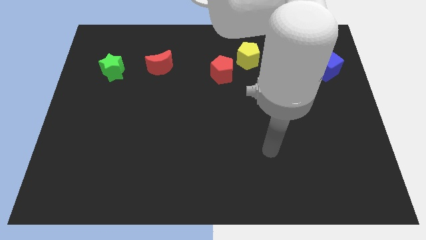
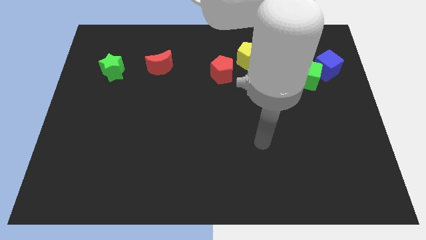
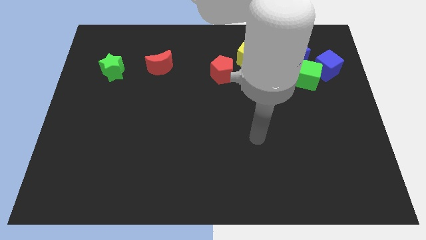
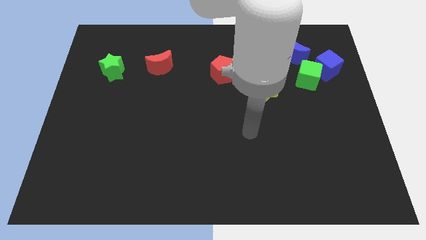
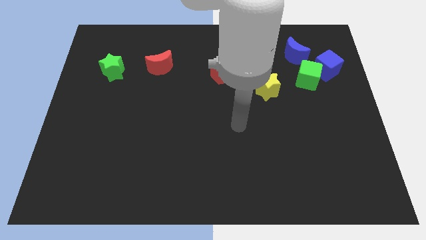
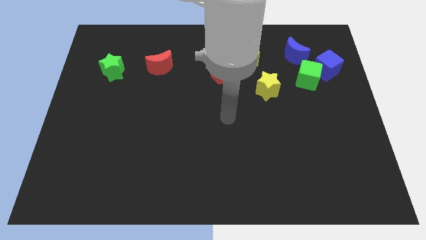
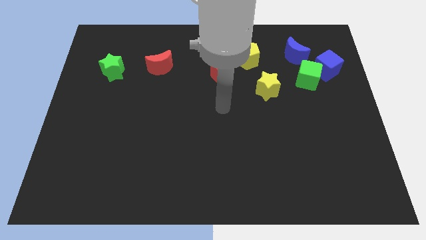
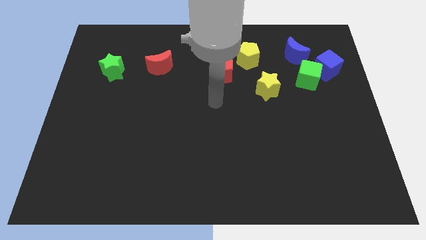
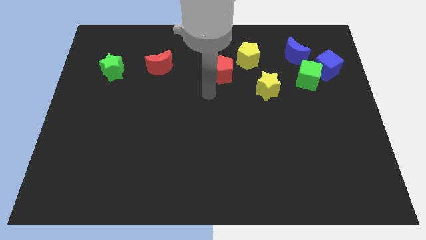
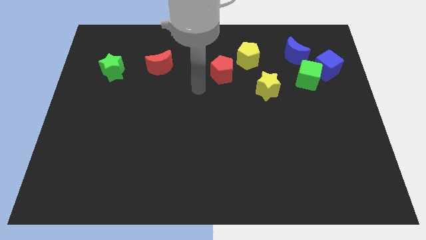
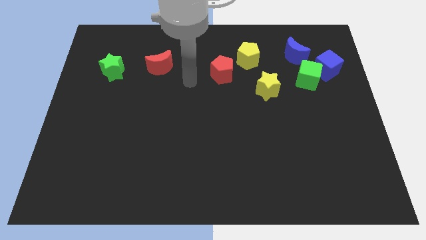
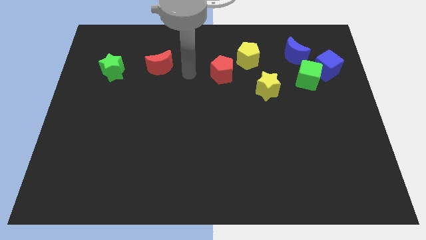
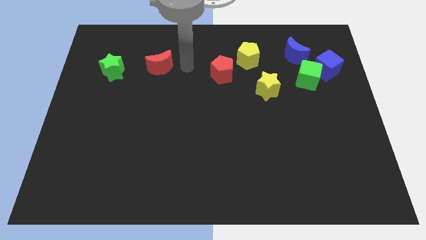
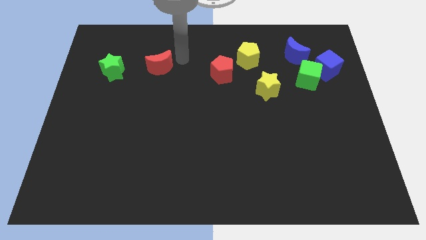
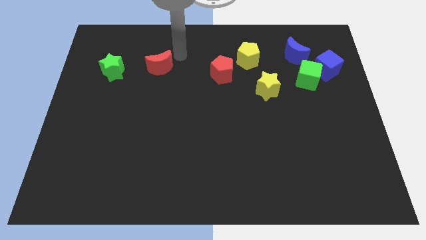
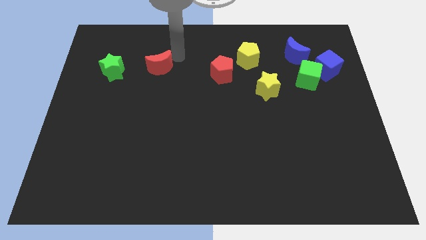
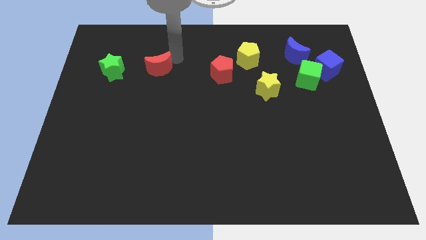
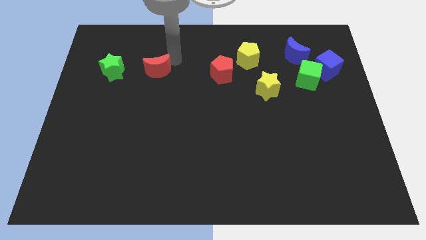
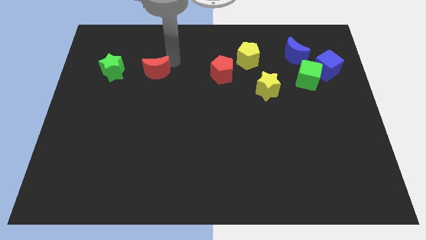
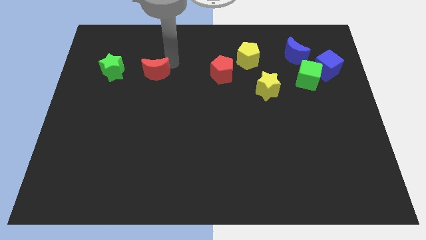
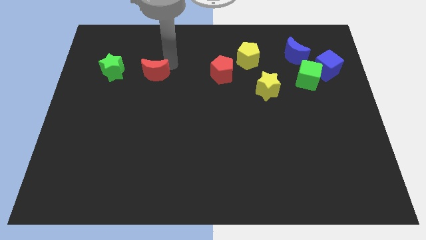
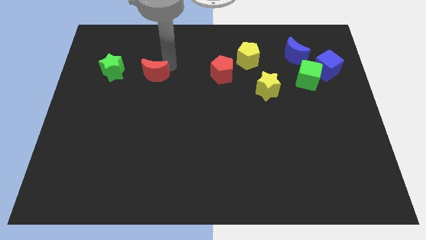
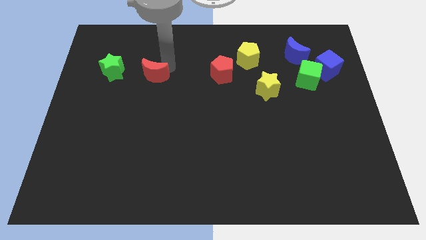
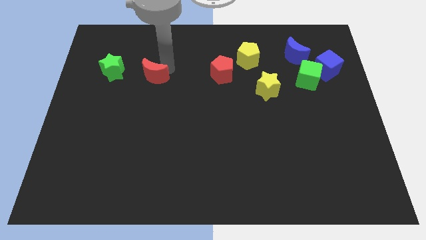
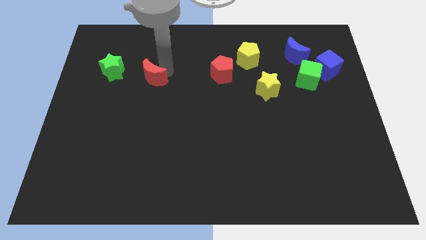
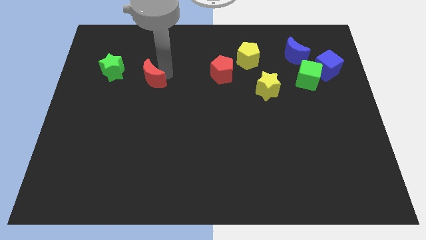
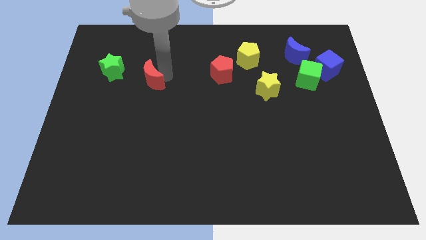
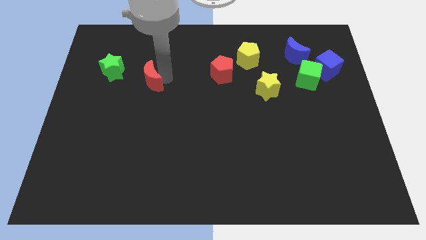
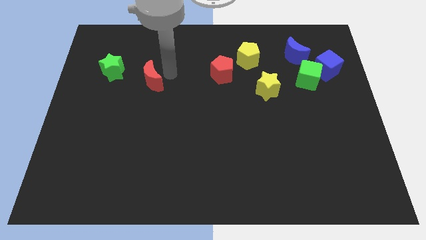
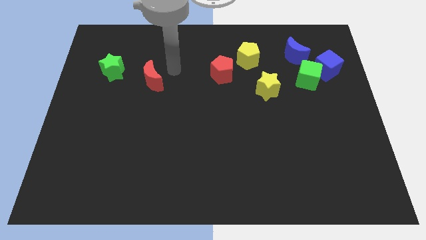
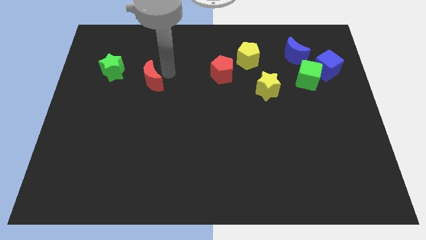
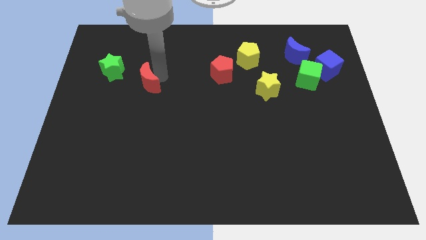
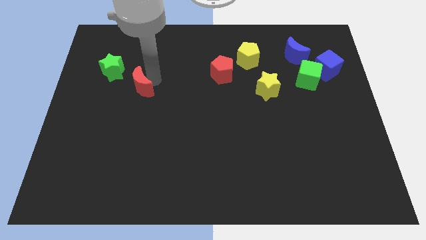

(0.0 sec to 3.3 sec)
slide the red moon down and to the left diagonally somewhat

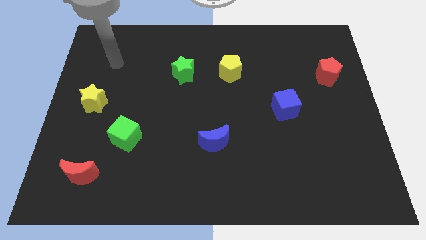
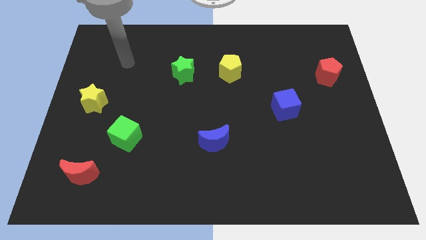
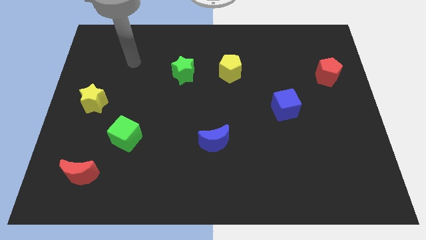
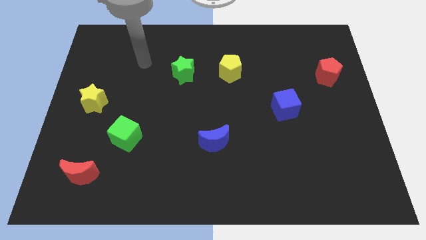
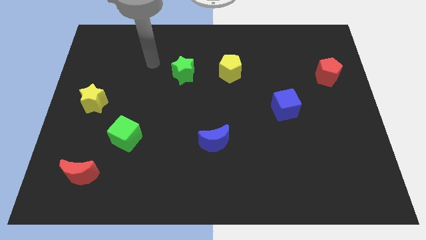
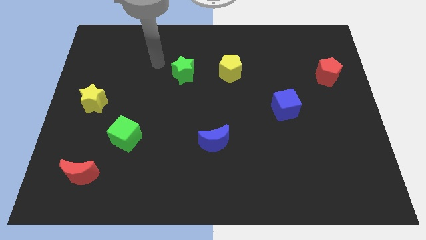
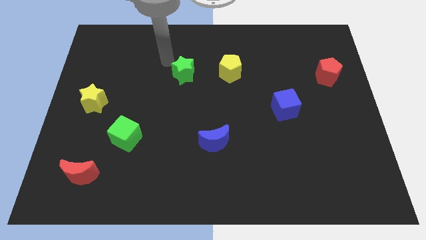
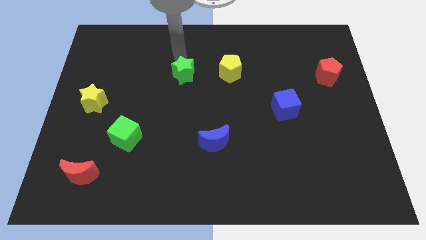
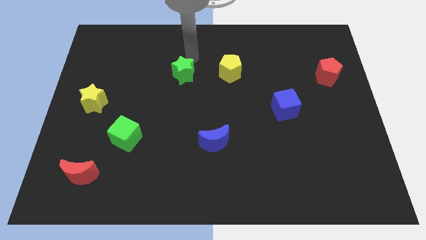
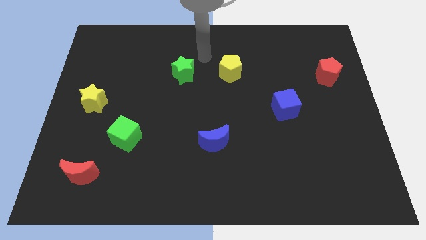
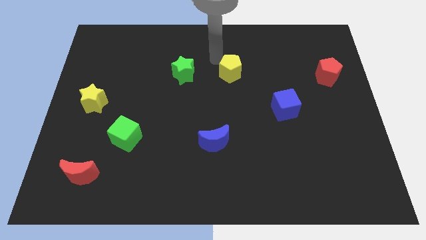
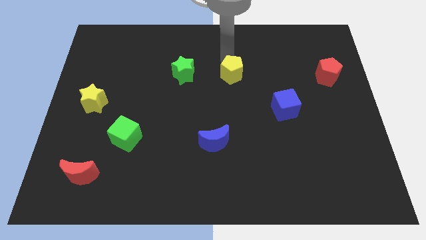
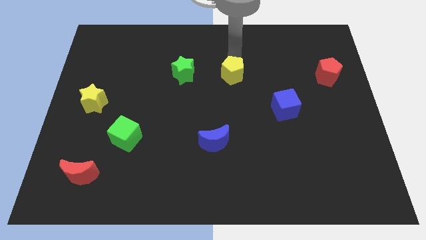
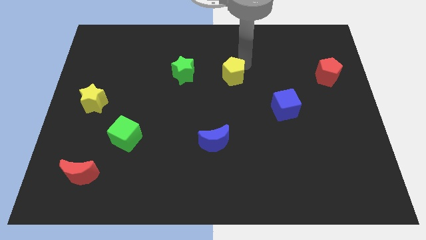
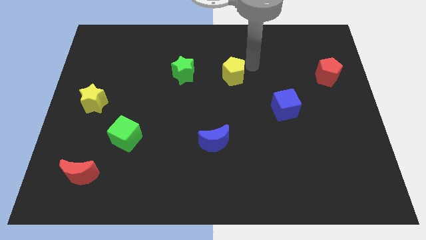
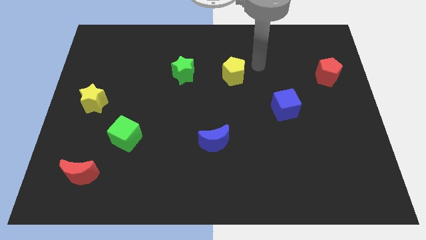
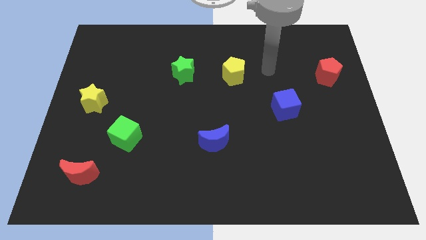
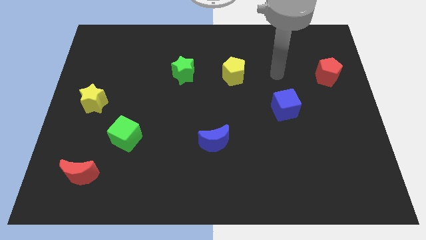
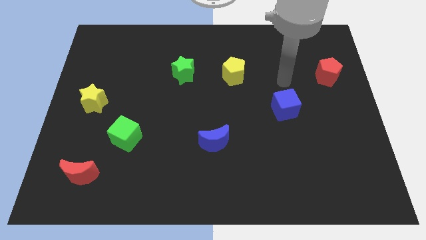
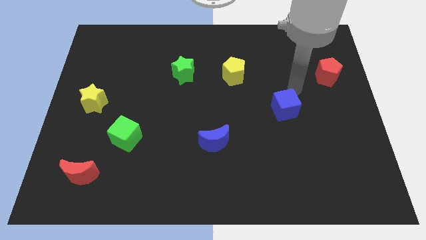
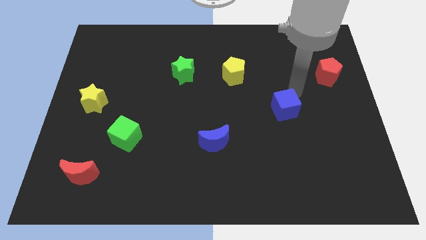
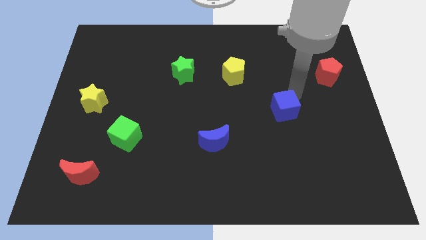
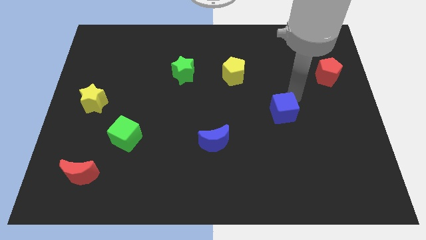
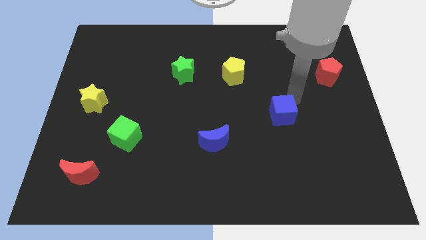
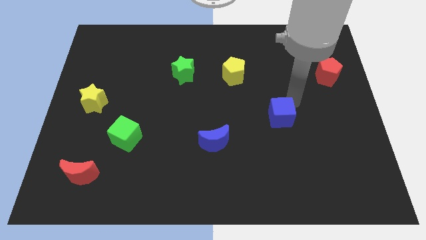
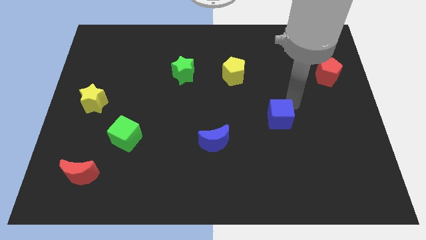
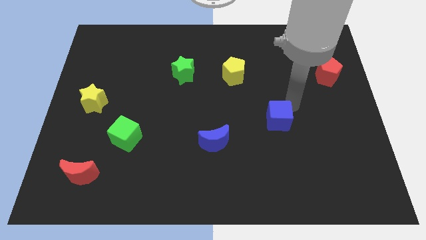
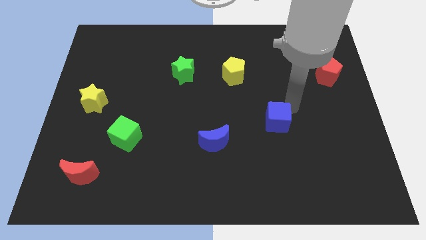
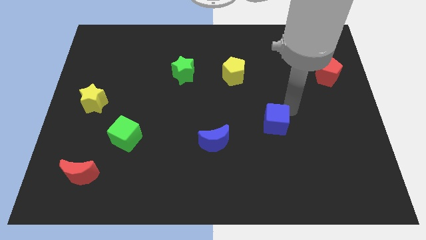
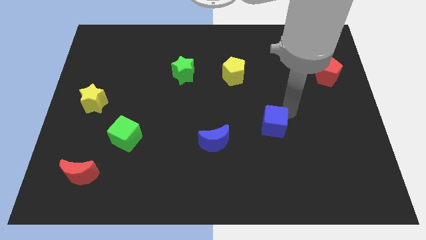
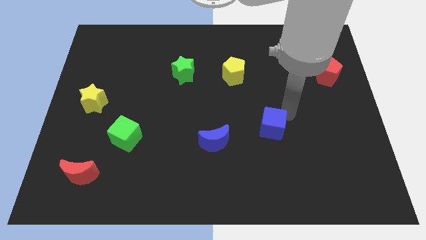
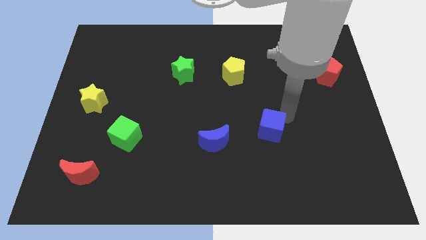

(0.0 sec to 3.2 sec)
move the blue cube a little downwards and left diagonally

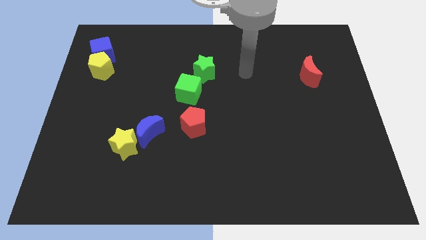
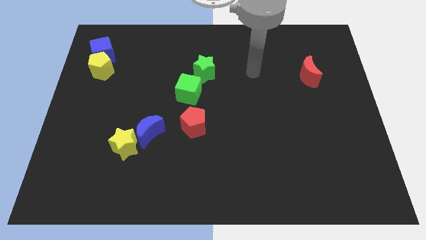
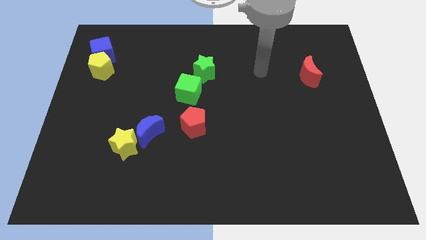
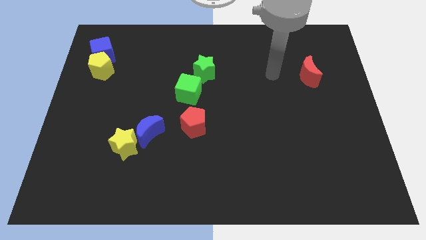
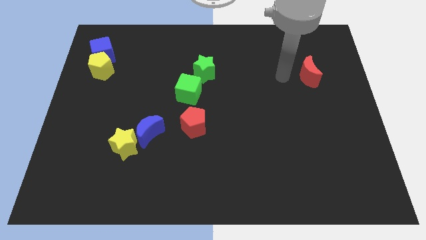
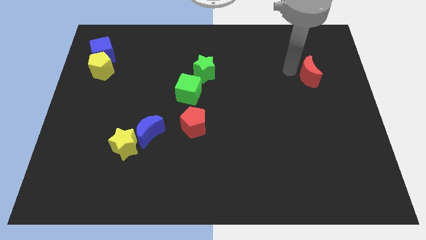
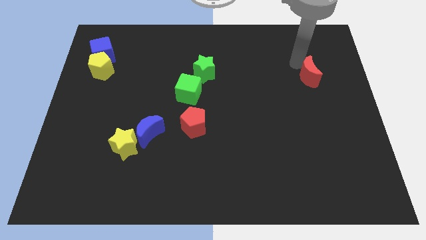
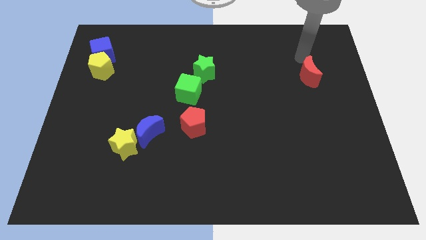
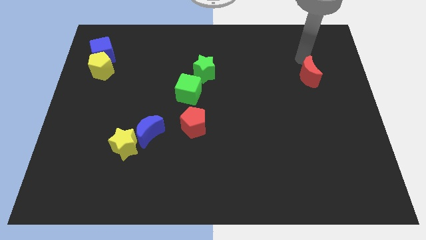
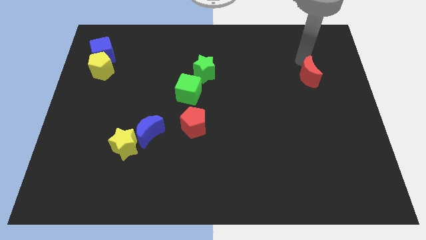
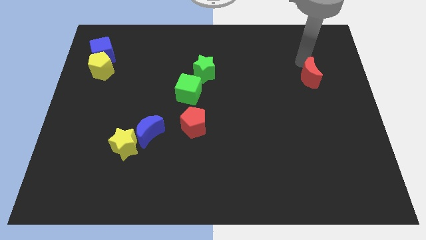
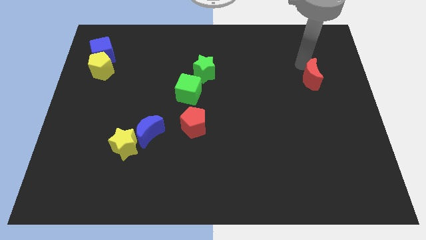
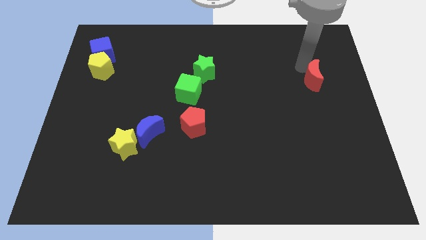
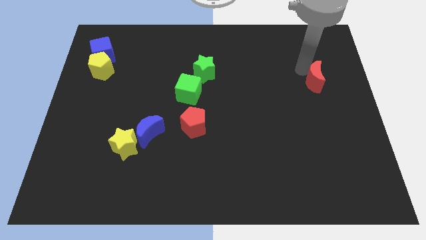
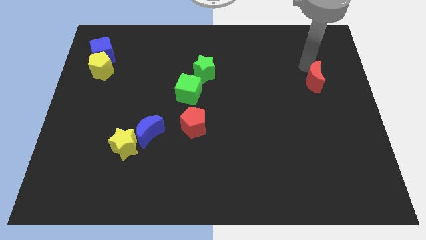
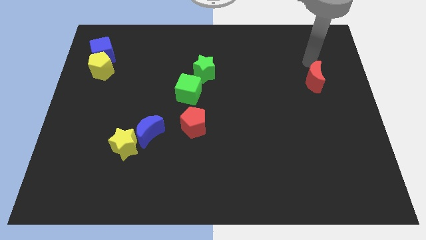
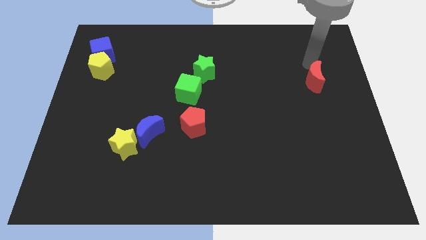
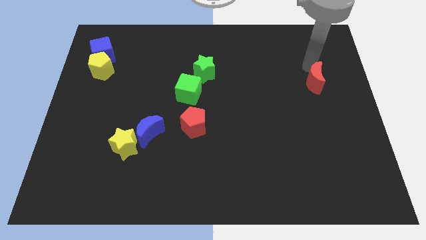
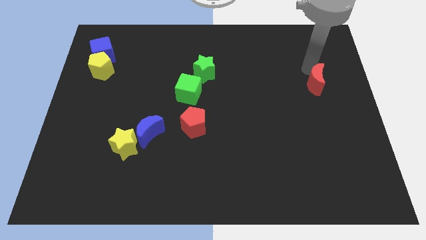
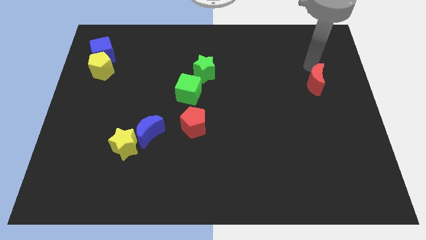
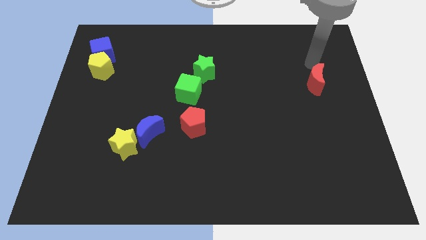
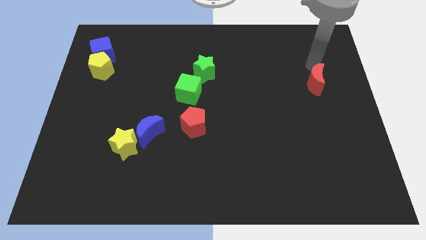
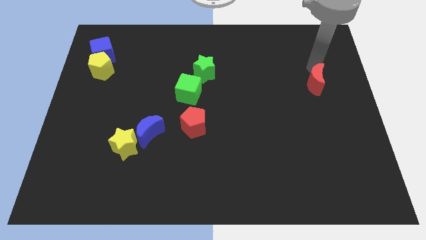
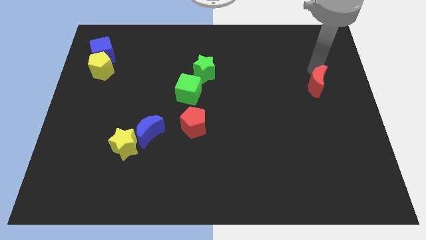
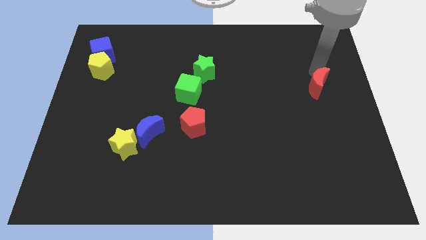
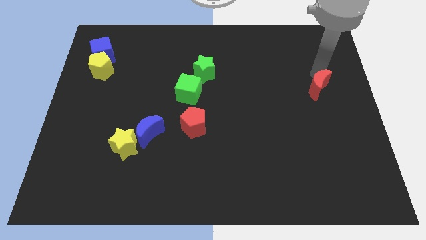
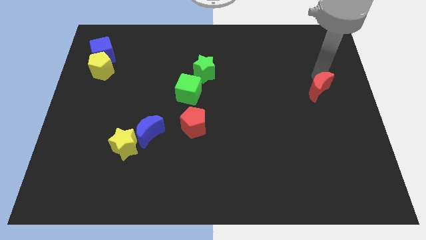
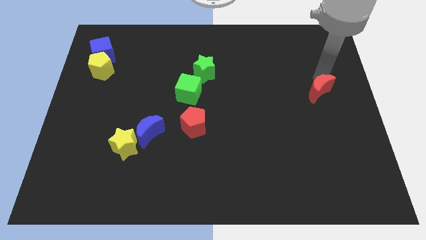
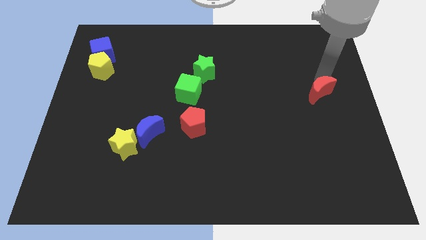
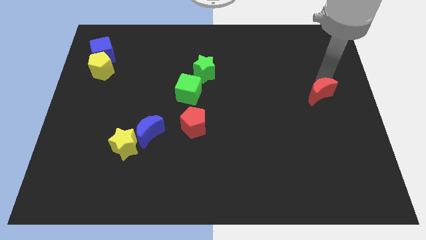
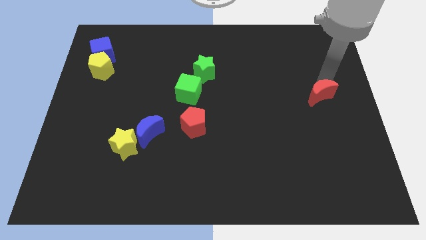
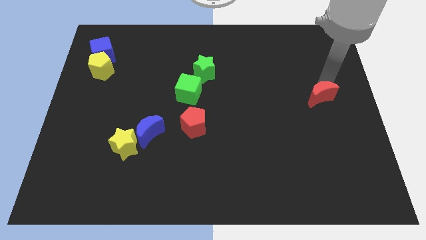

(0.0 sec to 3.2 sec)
move the red moon somewhat down
